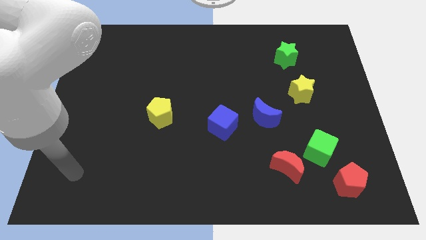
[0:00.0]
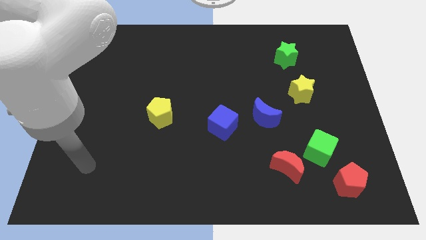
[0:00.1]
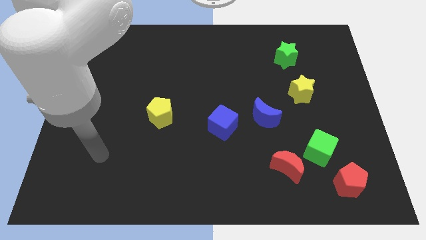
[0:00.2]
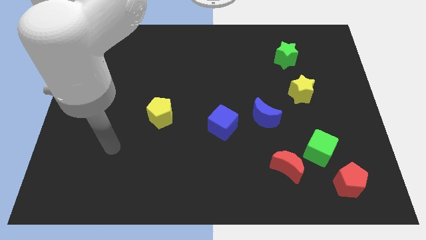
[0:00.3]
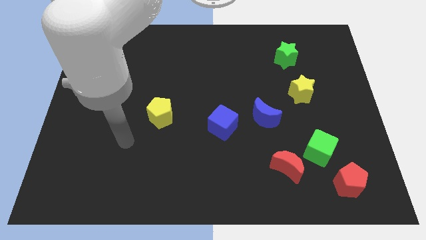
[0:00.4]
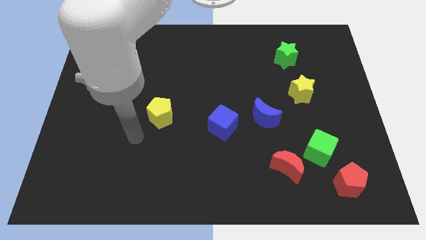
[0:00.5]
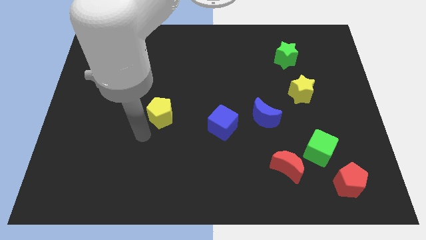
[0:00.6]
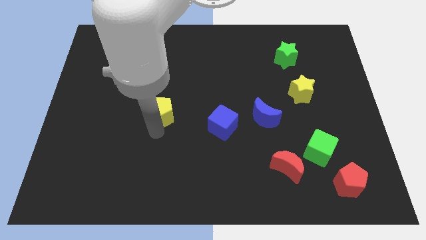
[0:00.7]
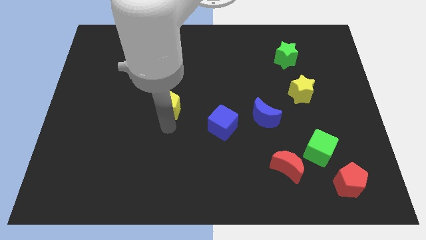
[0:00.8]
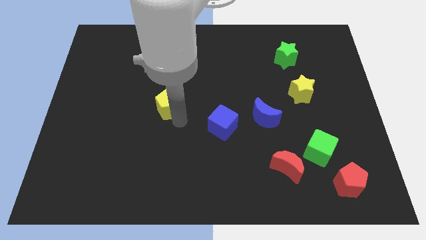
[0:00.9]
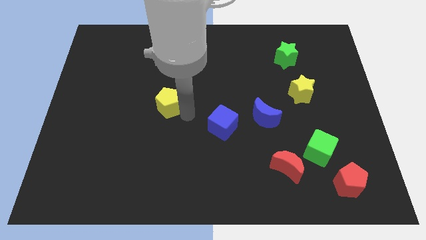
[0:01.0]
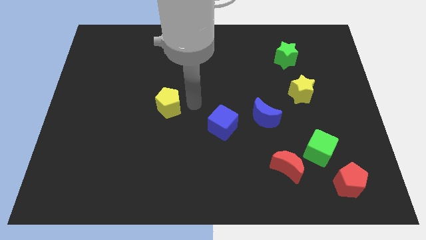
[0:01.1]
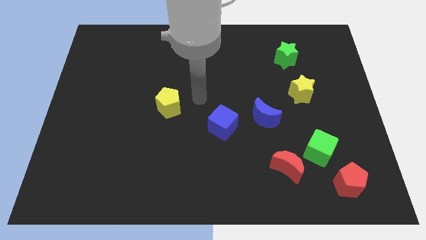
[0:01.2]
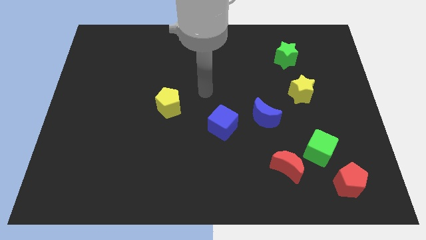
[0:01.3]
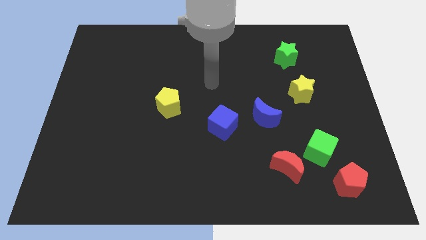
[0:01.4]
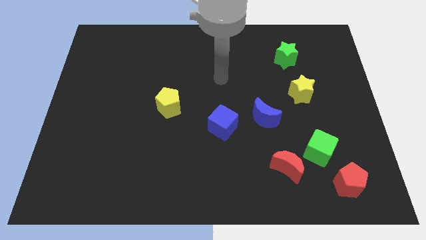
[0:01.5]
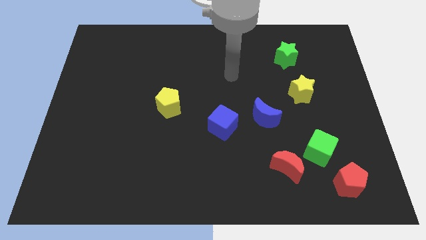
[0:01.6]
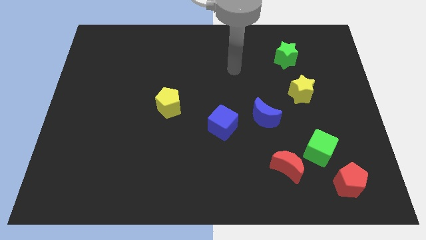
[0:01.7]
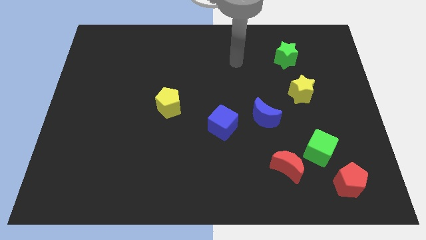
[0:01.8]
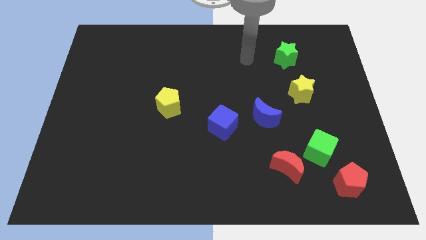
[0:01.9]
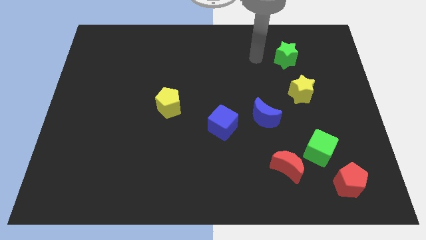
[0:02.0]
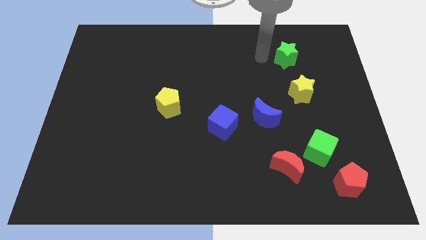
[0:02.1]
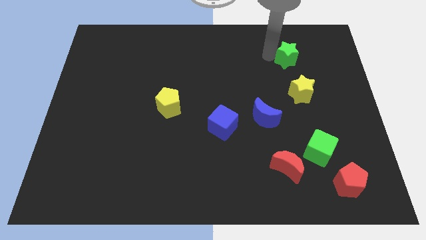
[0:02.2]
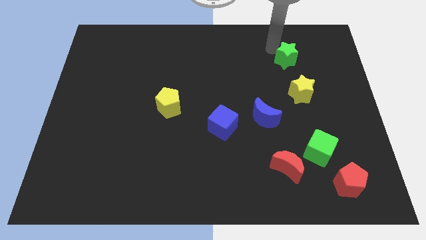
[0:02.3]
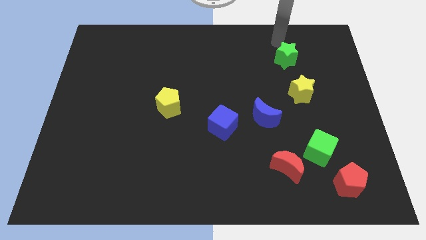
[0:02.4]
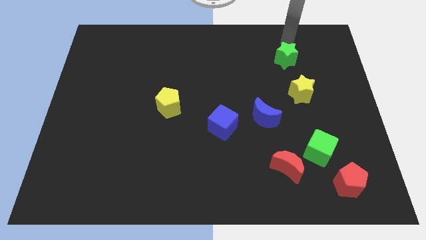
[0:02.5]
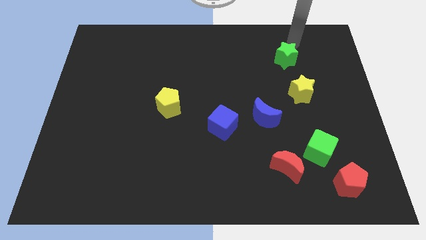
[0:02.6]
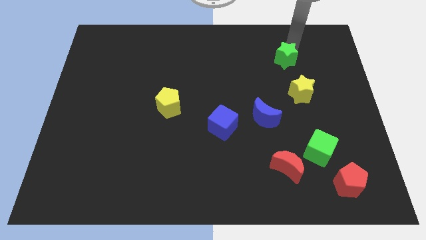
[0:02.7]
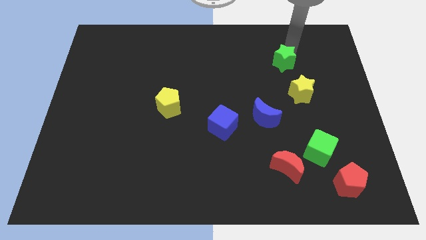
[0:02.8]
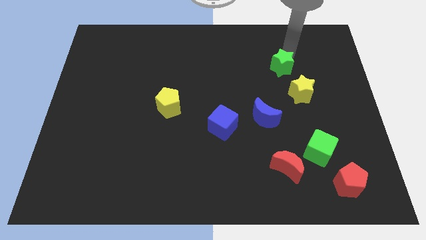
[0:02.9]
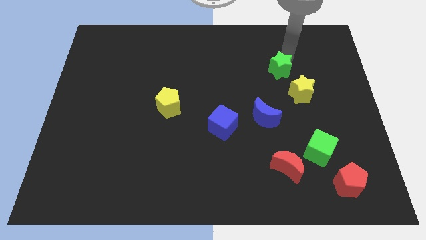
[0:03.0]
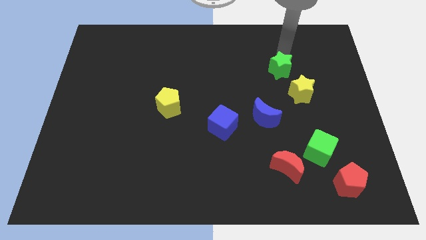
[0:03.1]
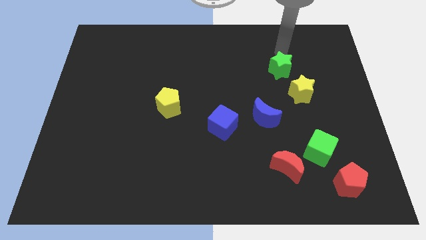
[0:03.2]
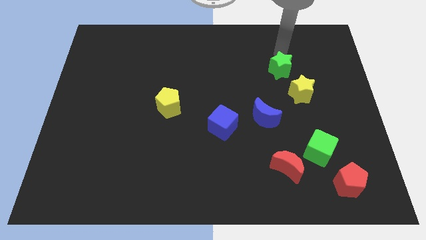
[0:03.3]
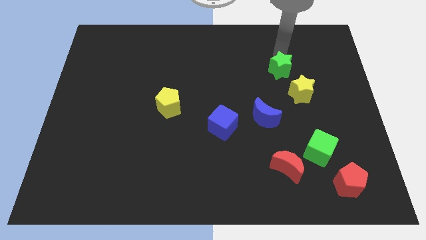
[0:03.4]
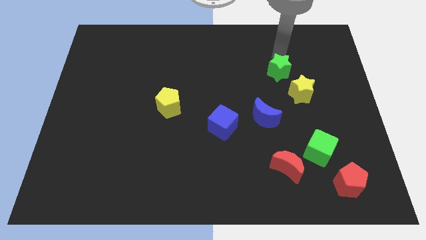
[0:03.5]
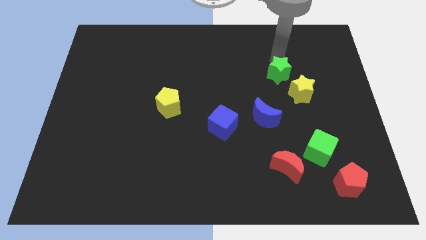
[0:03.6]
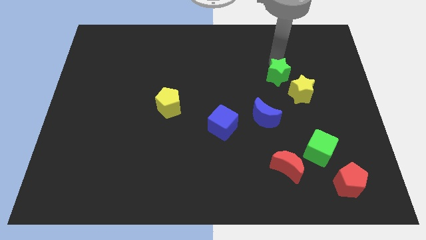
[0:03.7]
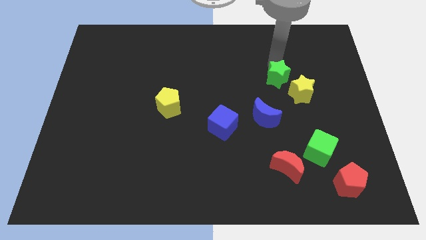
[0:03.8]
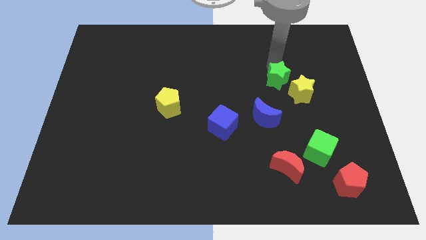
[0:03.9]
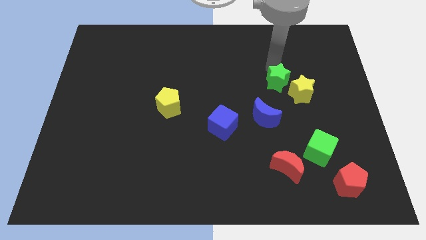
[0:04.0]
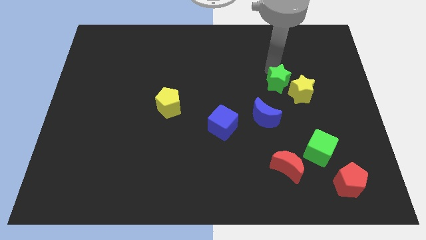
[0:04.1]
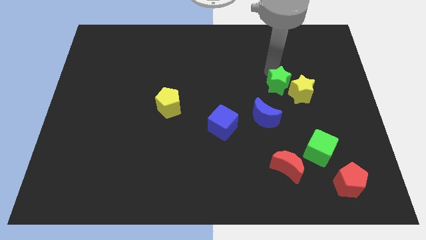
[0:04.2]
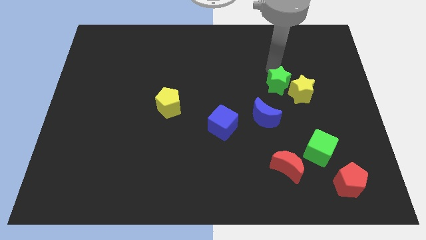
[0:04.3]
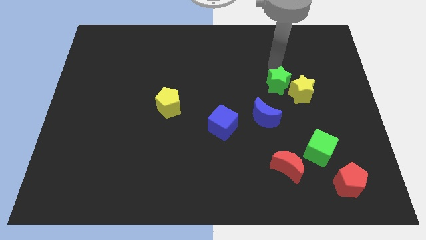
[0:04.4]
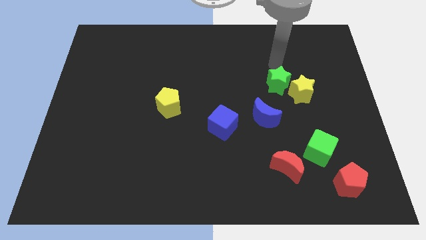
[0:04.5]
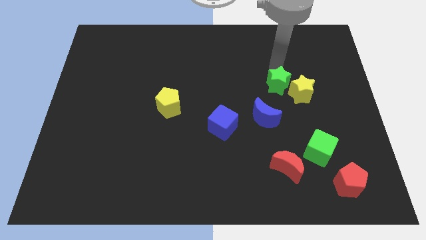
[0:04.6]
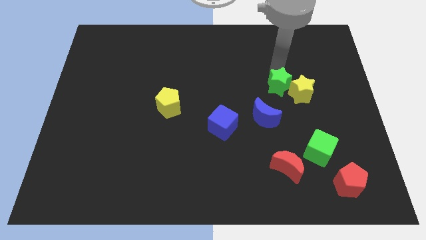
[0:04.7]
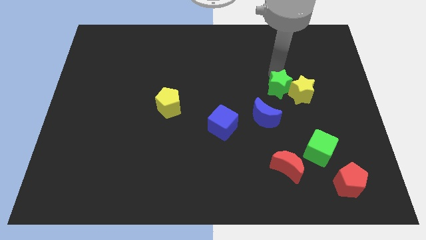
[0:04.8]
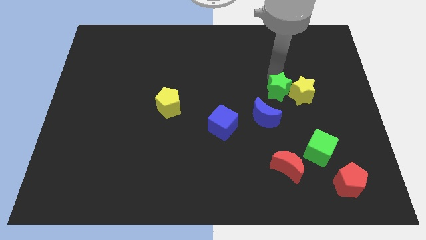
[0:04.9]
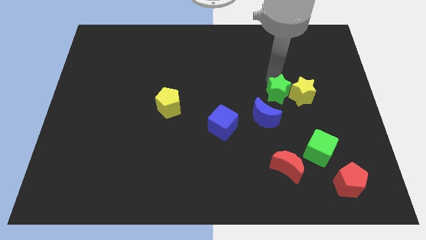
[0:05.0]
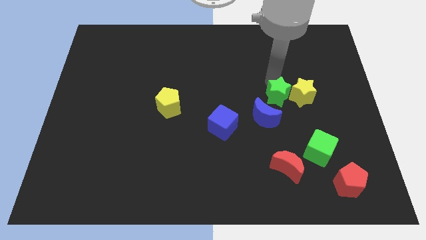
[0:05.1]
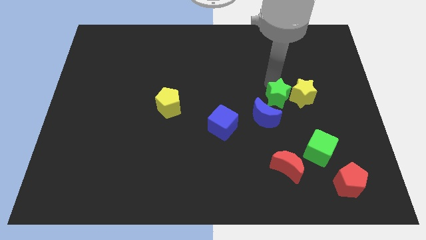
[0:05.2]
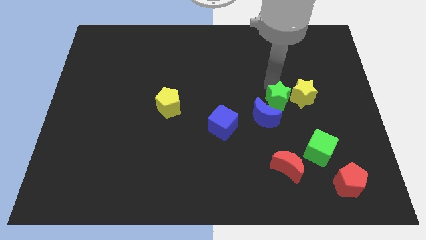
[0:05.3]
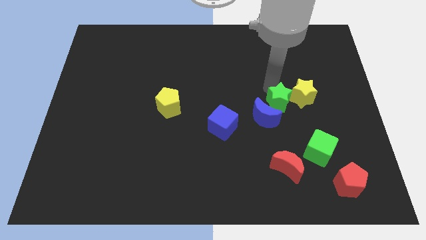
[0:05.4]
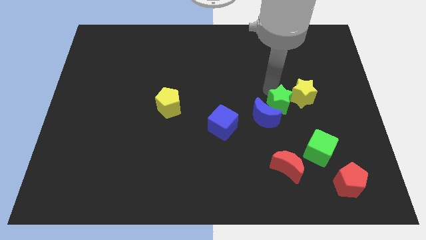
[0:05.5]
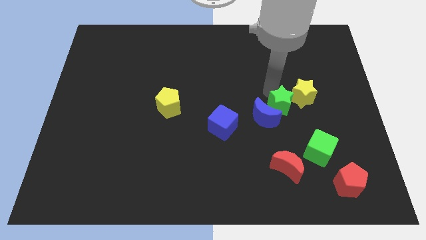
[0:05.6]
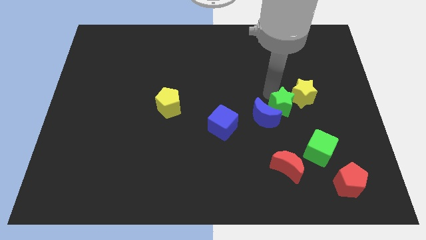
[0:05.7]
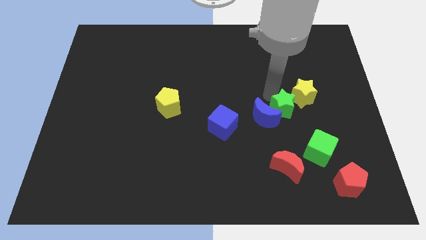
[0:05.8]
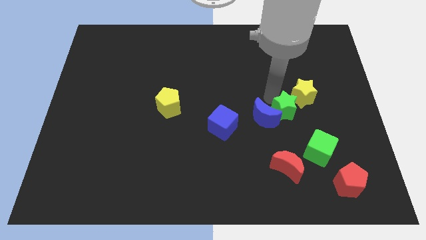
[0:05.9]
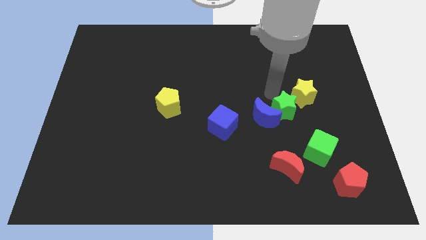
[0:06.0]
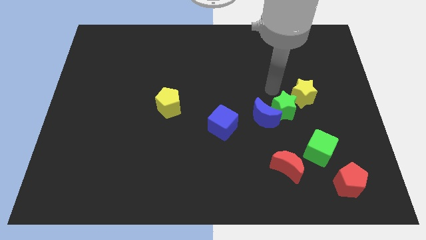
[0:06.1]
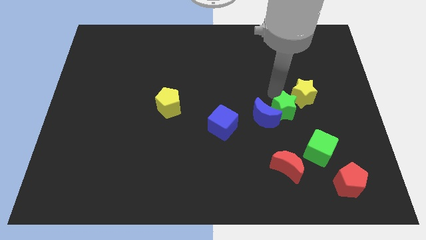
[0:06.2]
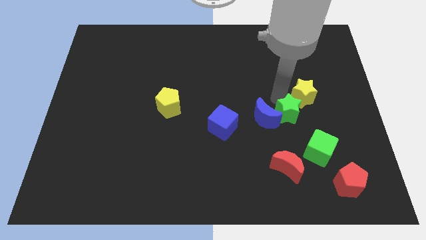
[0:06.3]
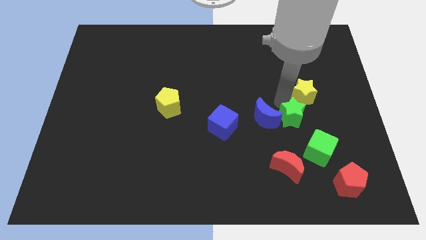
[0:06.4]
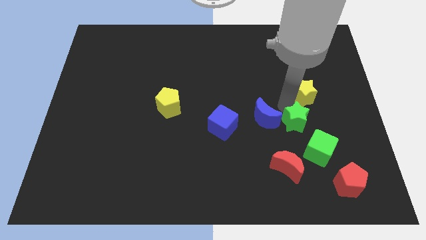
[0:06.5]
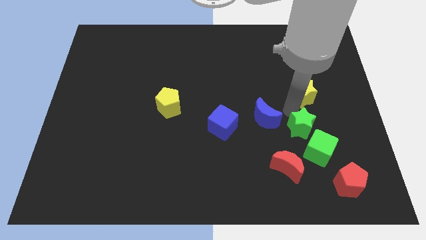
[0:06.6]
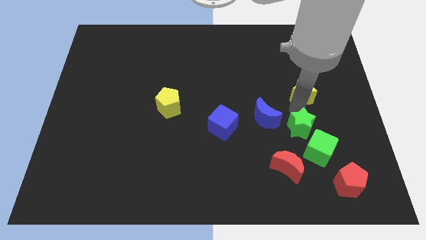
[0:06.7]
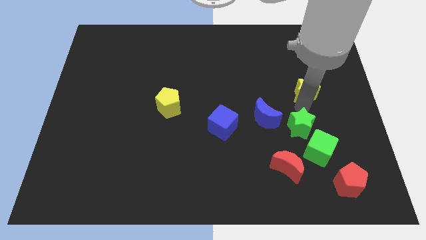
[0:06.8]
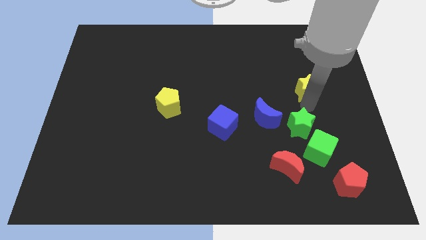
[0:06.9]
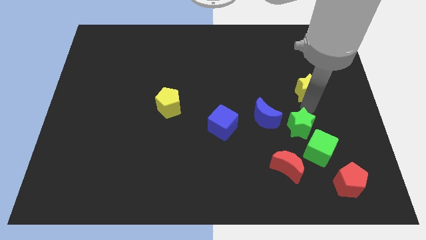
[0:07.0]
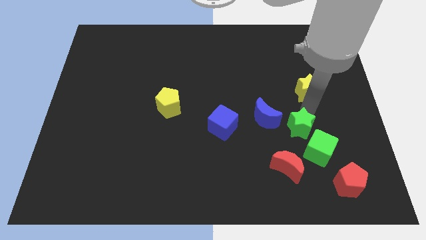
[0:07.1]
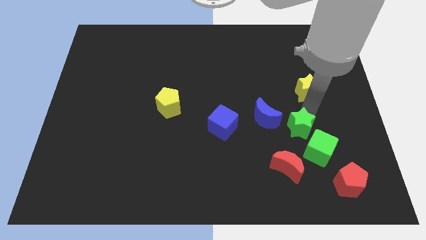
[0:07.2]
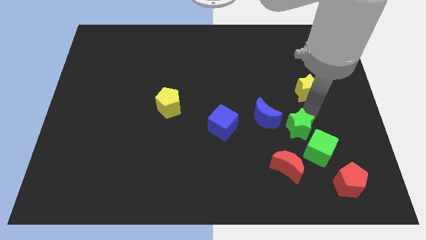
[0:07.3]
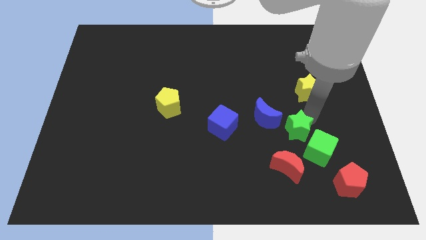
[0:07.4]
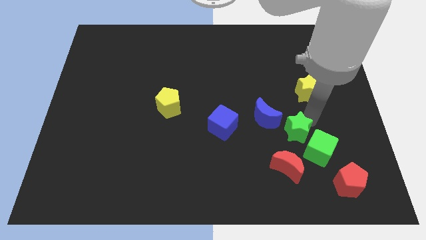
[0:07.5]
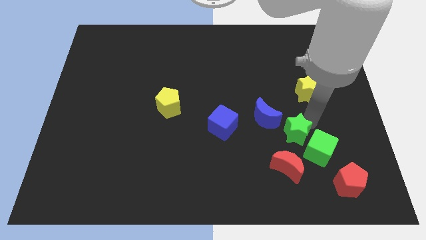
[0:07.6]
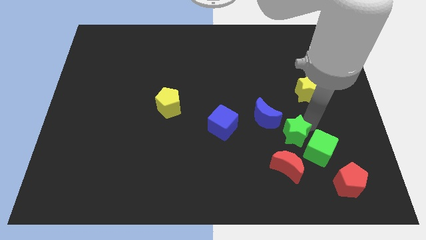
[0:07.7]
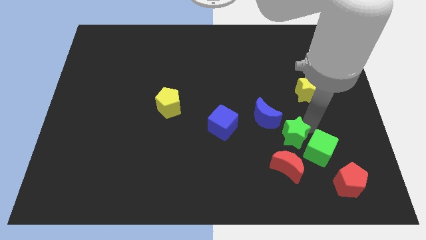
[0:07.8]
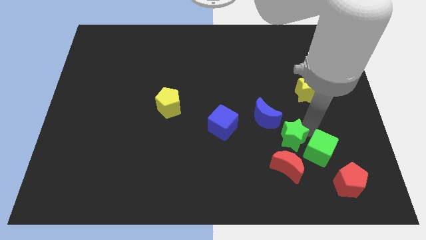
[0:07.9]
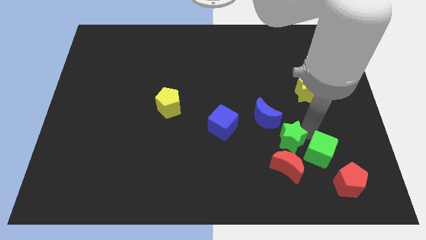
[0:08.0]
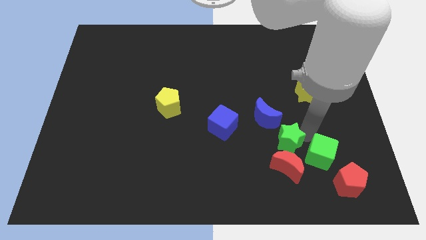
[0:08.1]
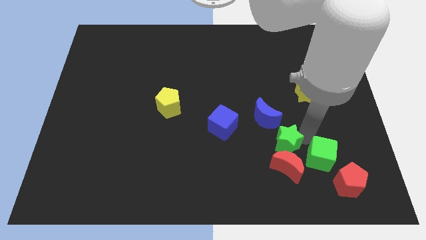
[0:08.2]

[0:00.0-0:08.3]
move the green star towards the red moon
